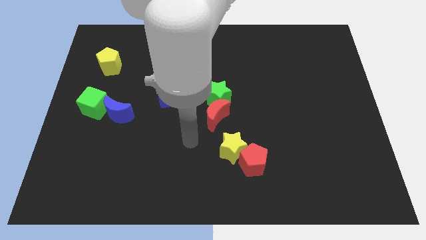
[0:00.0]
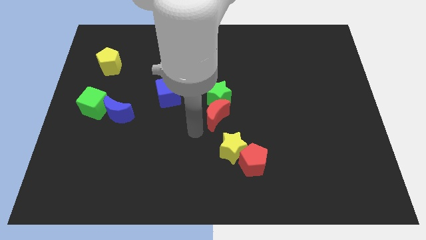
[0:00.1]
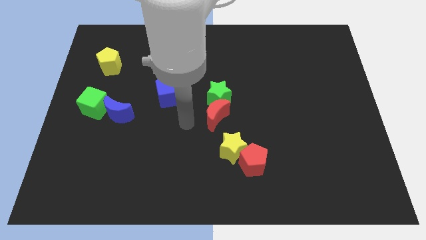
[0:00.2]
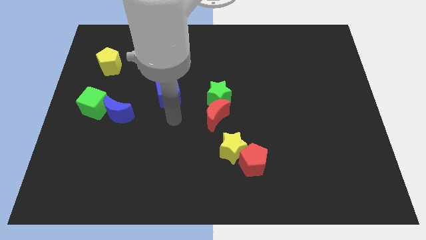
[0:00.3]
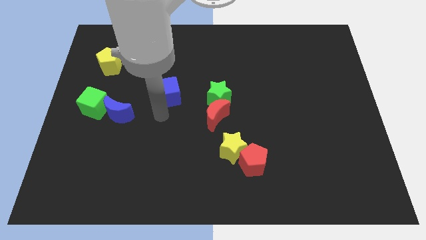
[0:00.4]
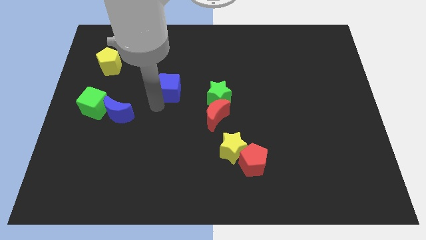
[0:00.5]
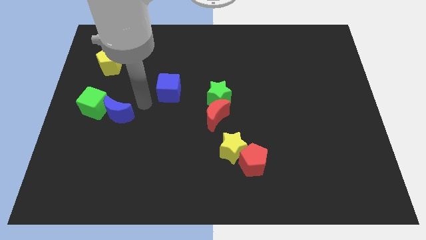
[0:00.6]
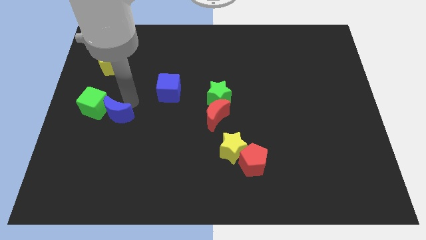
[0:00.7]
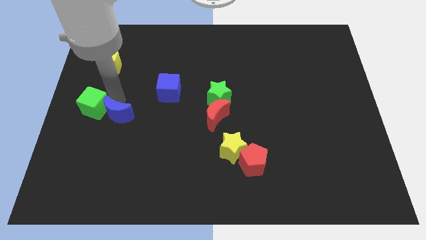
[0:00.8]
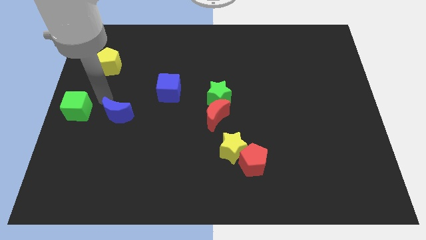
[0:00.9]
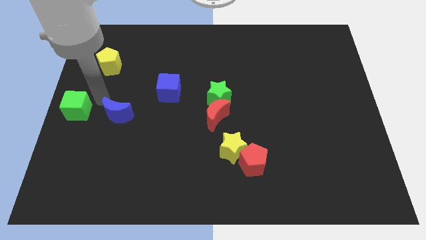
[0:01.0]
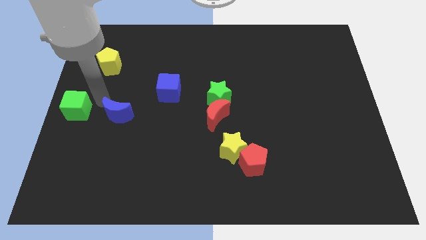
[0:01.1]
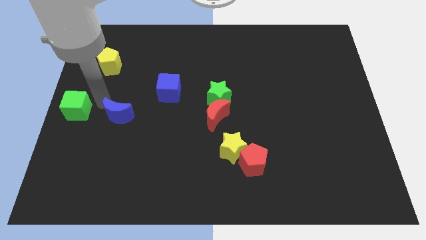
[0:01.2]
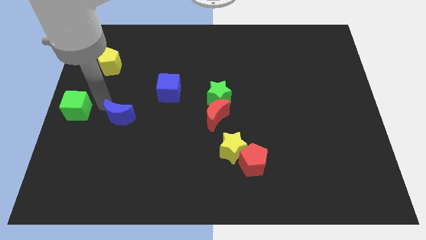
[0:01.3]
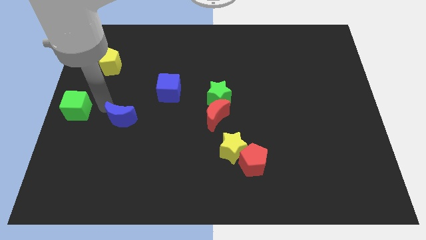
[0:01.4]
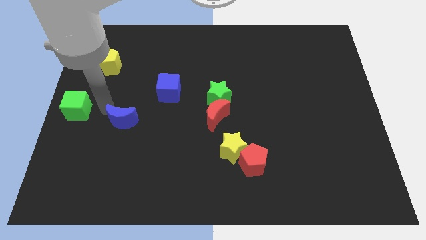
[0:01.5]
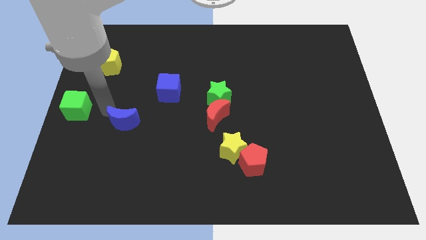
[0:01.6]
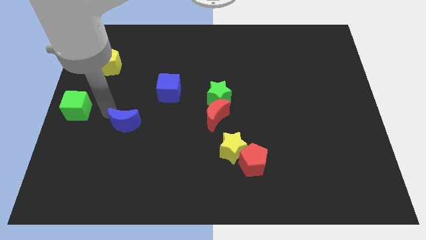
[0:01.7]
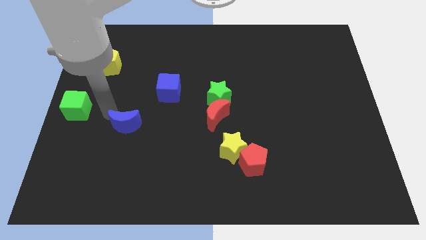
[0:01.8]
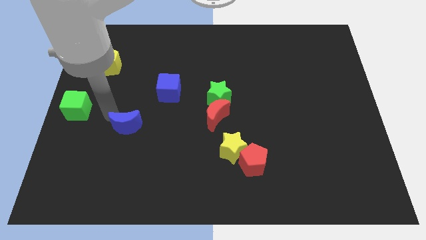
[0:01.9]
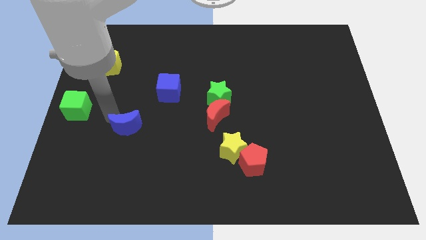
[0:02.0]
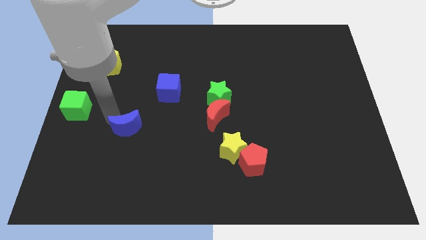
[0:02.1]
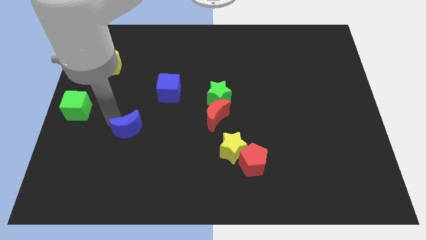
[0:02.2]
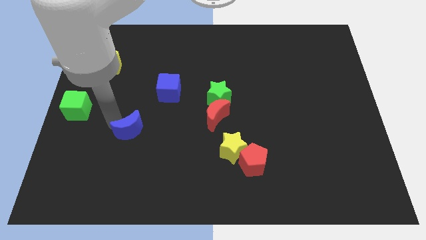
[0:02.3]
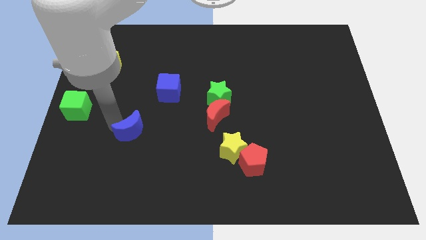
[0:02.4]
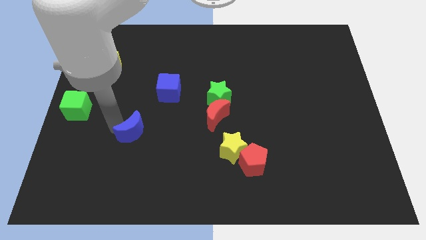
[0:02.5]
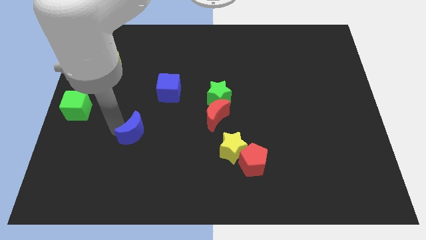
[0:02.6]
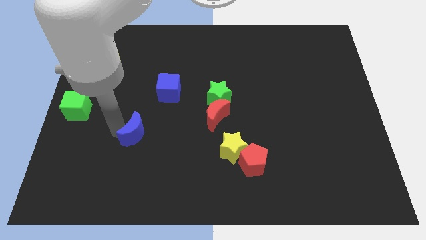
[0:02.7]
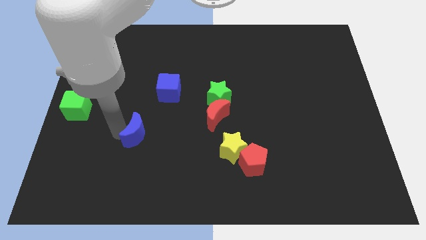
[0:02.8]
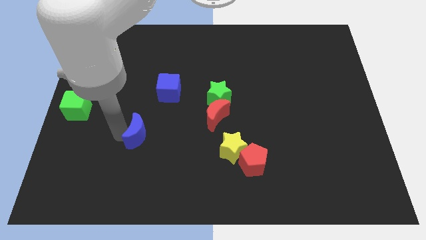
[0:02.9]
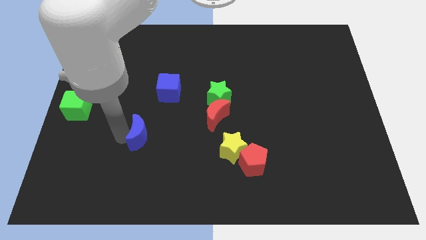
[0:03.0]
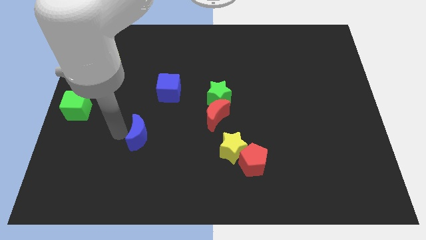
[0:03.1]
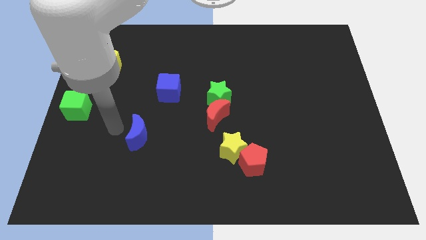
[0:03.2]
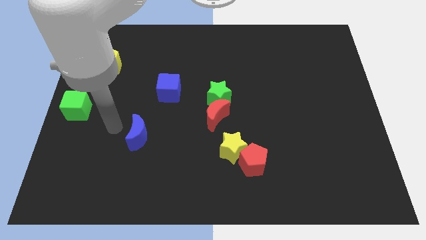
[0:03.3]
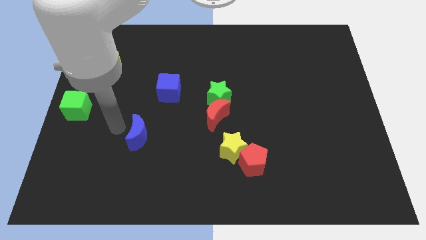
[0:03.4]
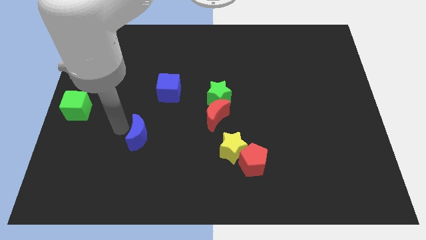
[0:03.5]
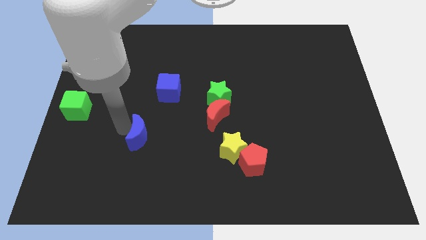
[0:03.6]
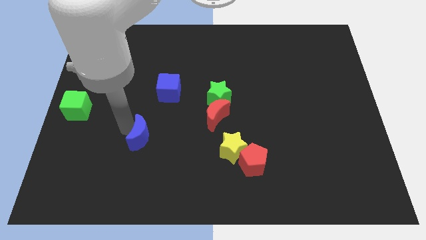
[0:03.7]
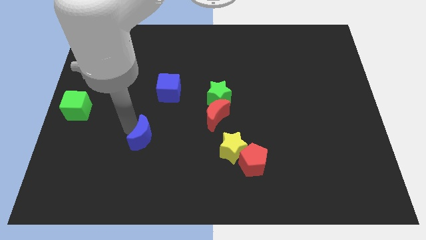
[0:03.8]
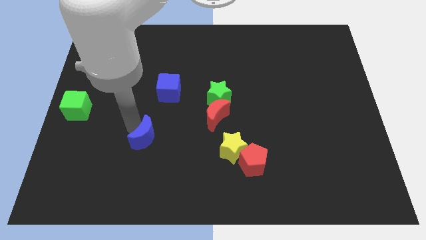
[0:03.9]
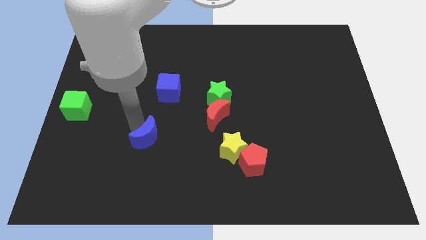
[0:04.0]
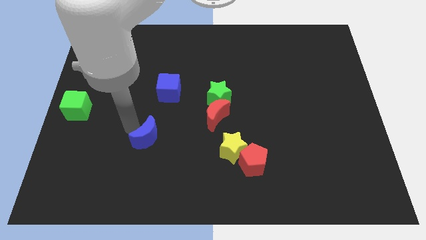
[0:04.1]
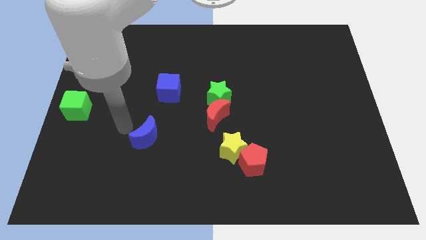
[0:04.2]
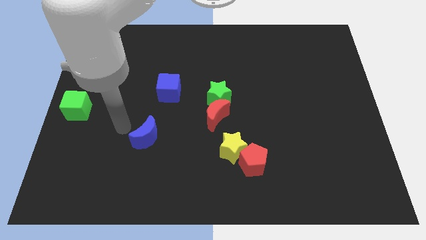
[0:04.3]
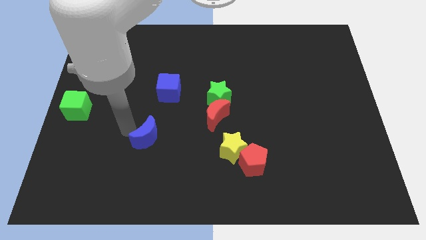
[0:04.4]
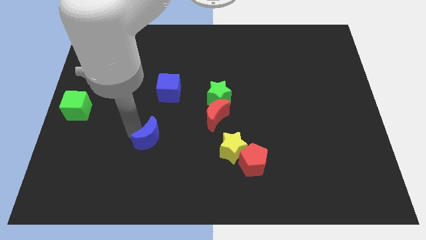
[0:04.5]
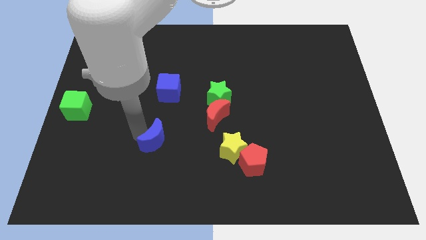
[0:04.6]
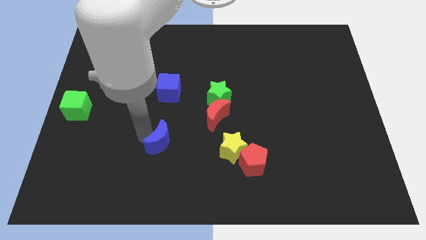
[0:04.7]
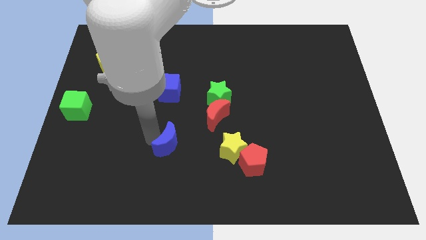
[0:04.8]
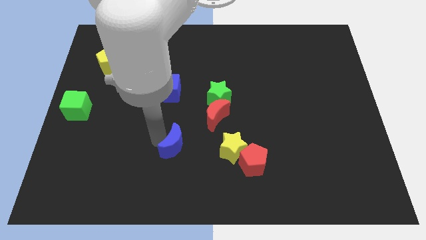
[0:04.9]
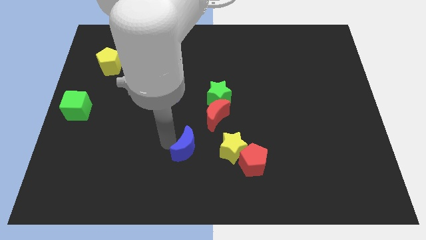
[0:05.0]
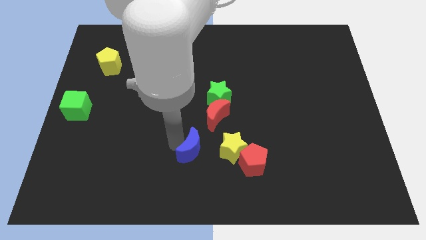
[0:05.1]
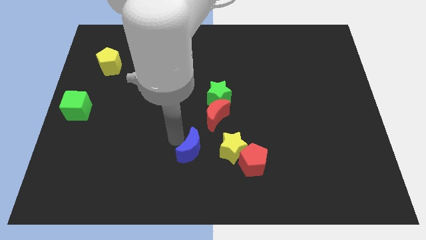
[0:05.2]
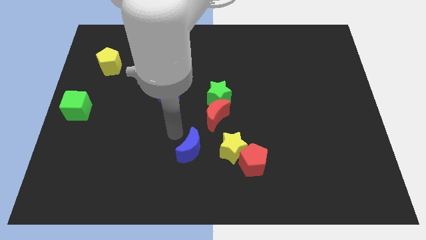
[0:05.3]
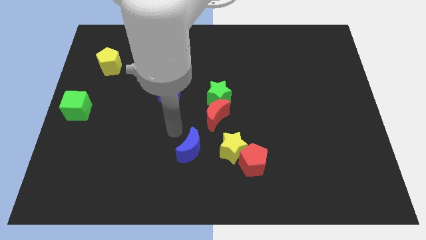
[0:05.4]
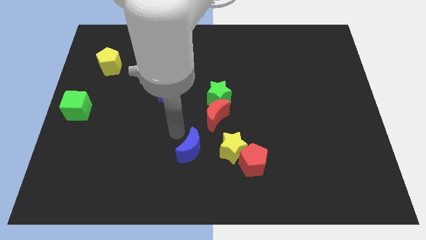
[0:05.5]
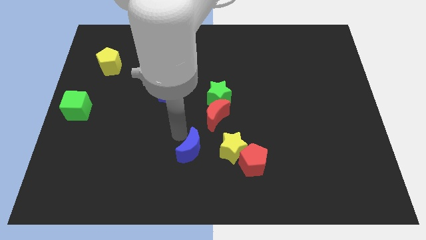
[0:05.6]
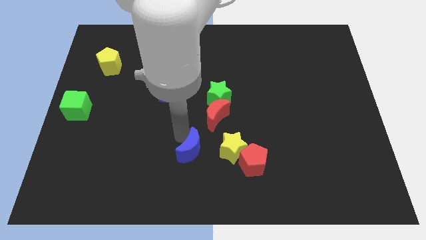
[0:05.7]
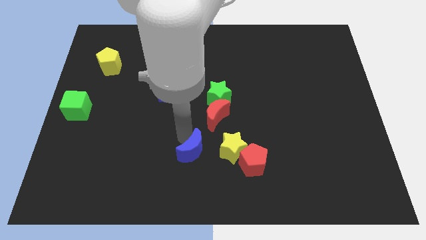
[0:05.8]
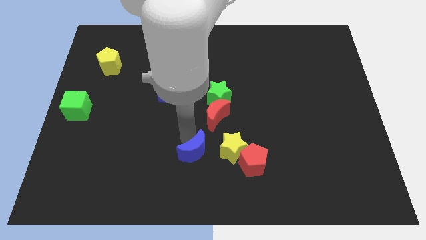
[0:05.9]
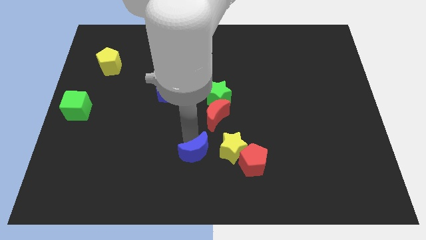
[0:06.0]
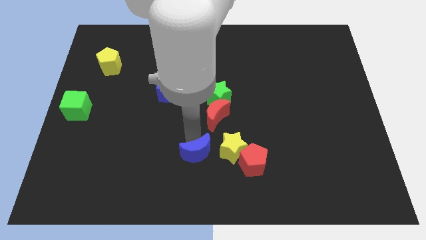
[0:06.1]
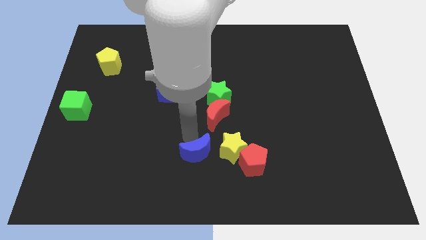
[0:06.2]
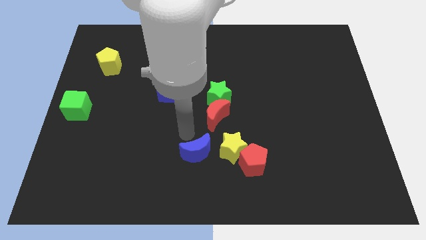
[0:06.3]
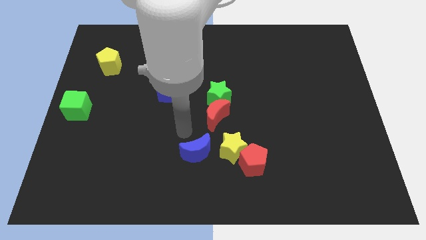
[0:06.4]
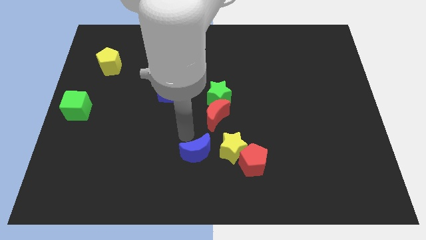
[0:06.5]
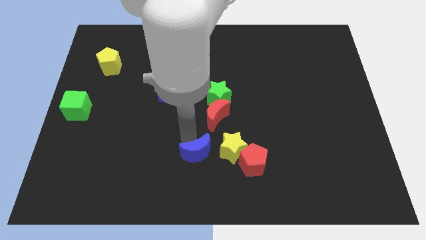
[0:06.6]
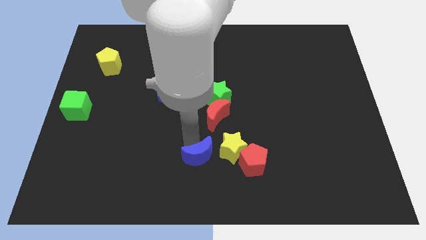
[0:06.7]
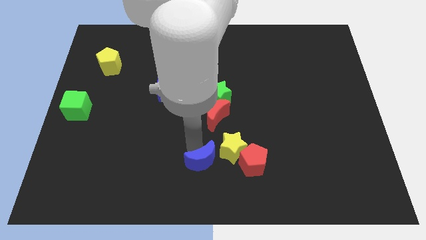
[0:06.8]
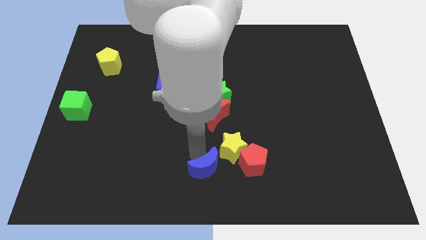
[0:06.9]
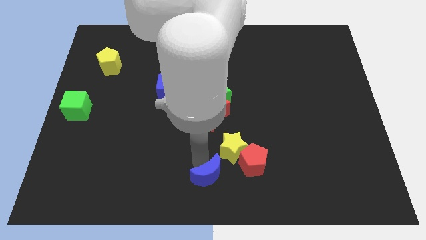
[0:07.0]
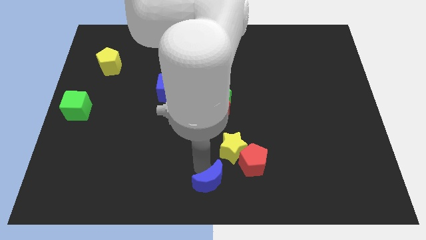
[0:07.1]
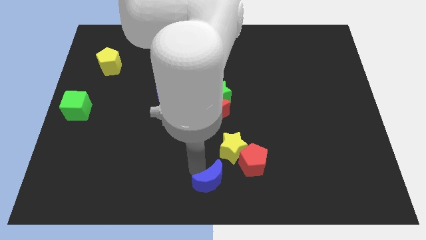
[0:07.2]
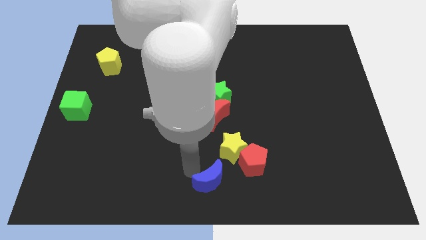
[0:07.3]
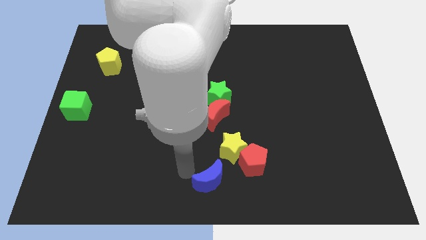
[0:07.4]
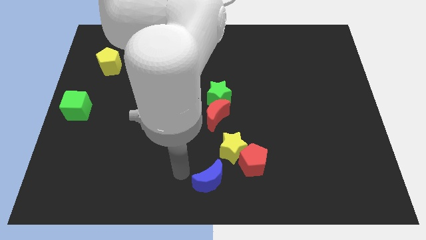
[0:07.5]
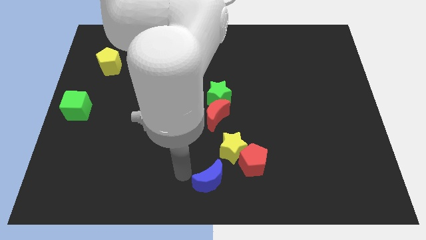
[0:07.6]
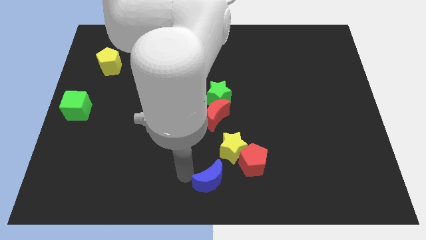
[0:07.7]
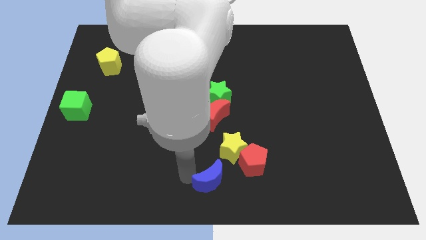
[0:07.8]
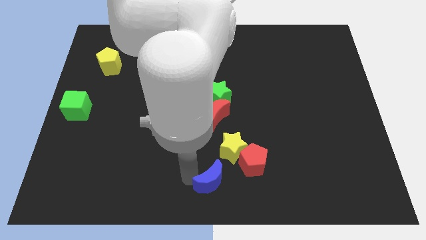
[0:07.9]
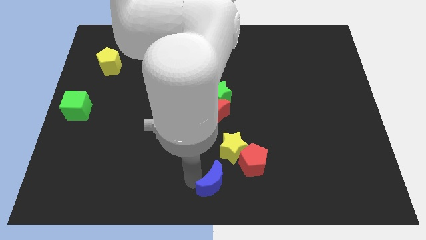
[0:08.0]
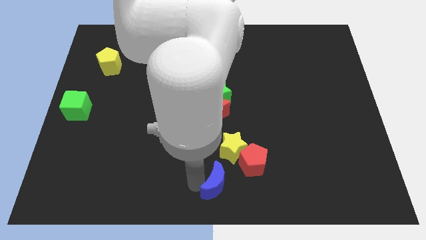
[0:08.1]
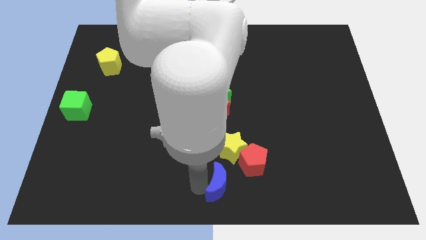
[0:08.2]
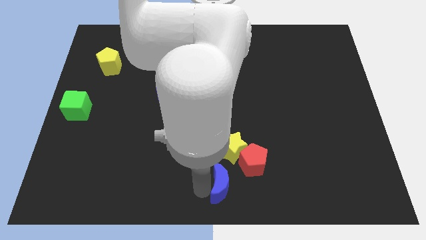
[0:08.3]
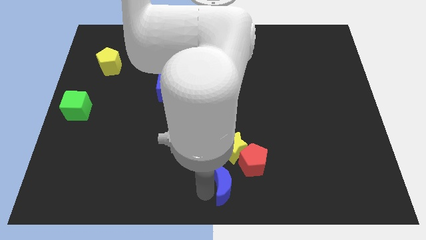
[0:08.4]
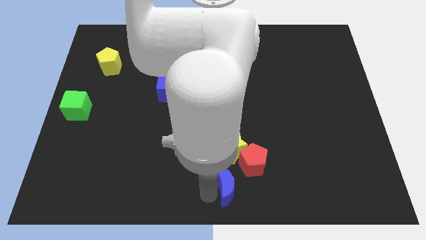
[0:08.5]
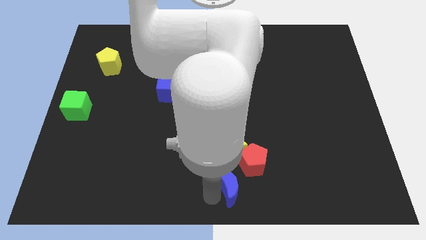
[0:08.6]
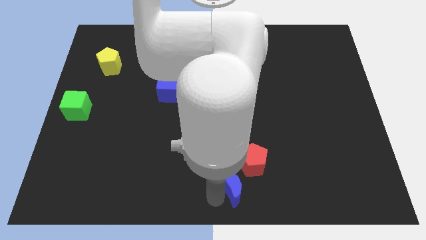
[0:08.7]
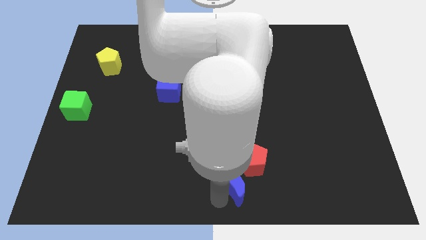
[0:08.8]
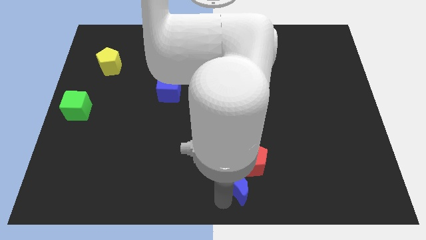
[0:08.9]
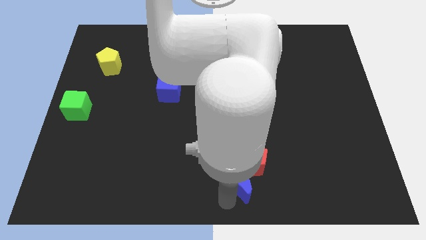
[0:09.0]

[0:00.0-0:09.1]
put the blue moon to the red pentagon
